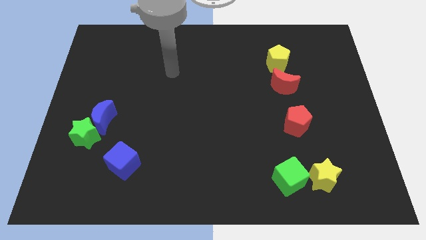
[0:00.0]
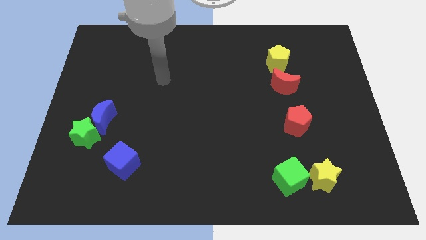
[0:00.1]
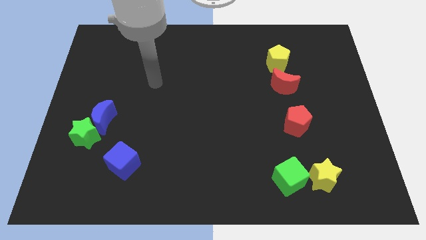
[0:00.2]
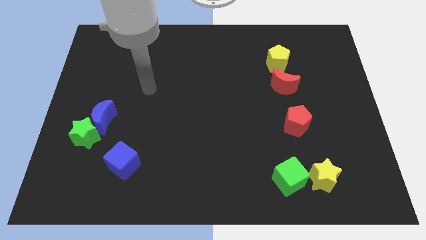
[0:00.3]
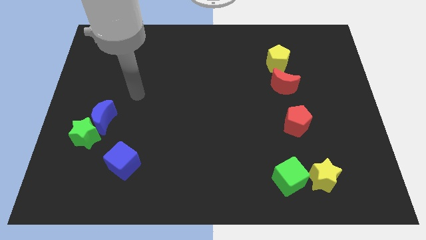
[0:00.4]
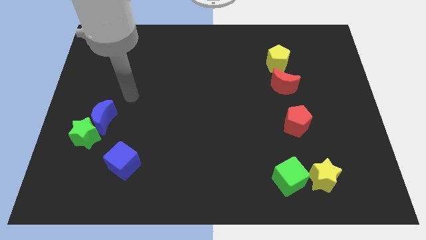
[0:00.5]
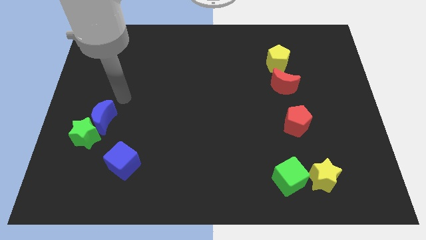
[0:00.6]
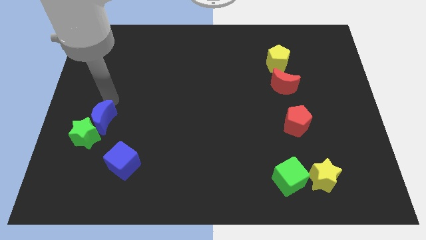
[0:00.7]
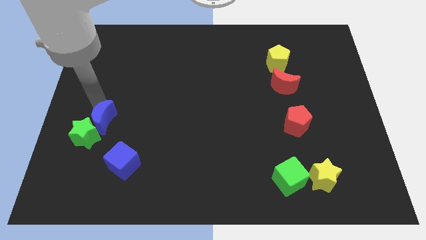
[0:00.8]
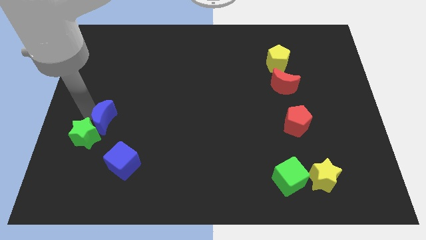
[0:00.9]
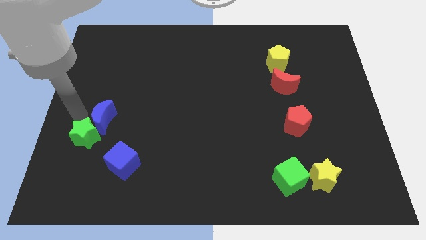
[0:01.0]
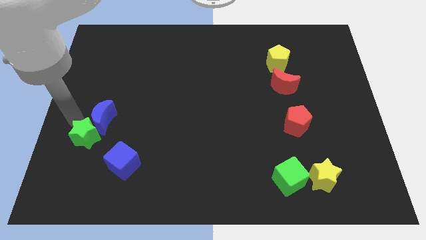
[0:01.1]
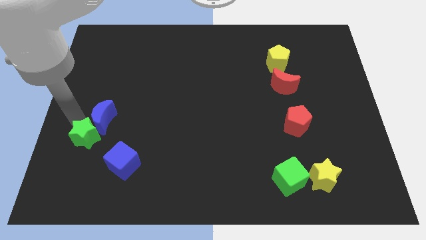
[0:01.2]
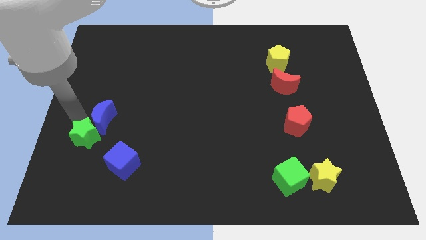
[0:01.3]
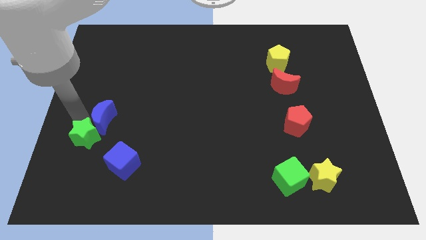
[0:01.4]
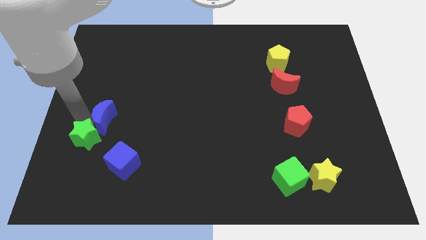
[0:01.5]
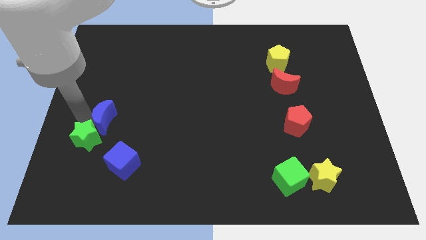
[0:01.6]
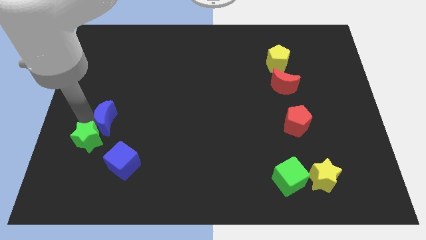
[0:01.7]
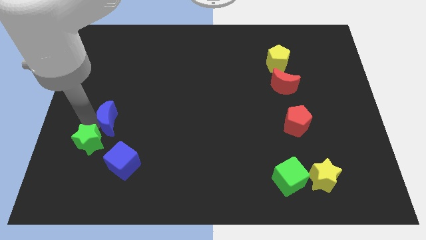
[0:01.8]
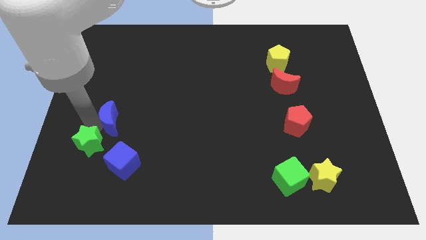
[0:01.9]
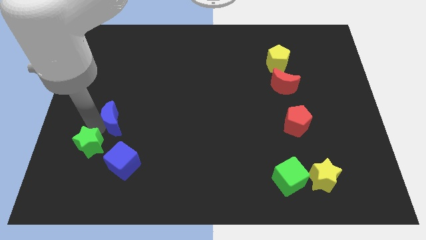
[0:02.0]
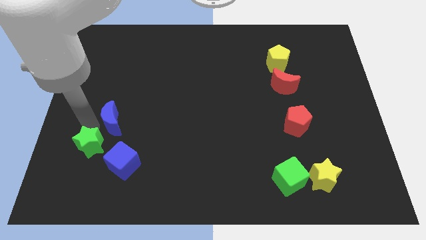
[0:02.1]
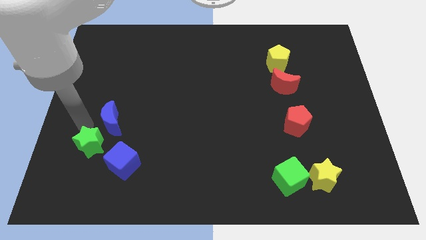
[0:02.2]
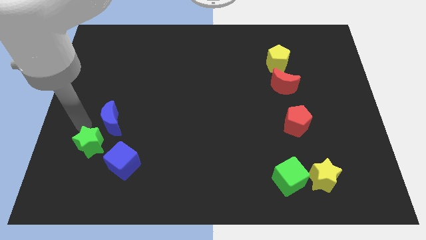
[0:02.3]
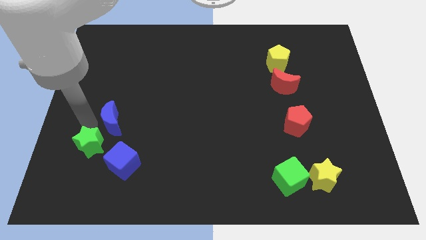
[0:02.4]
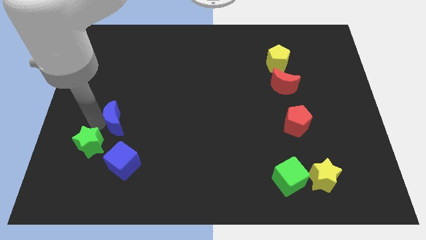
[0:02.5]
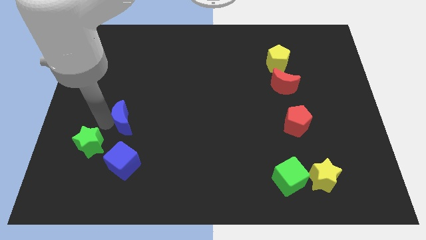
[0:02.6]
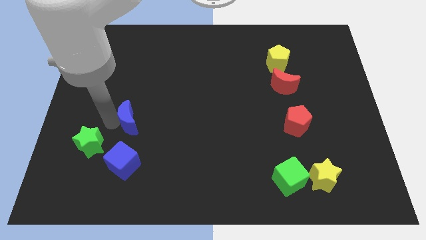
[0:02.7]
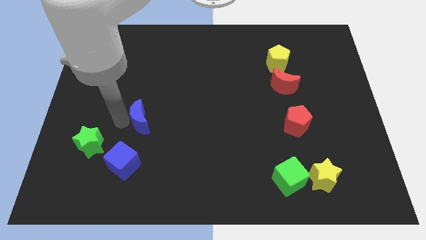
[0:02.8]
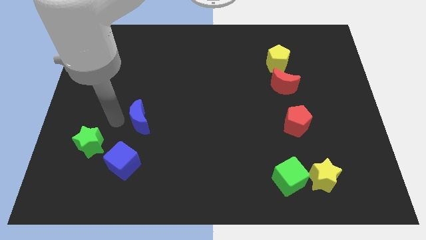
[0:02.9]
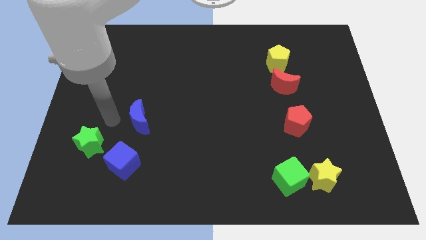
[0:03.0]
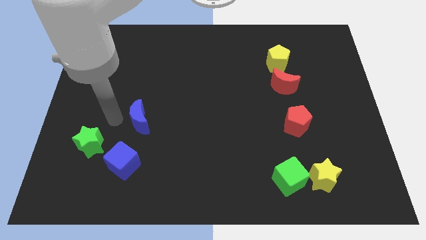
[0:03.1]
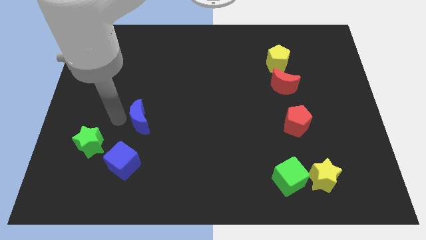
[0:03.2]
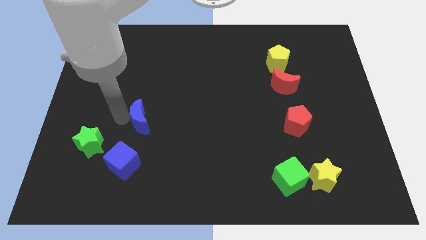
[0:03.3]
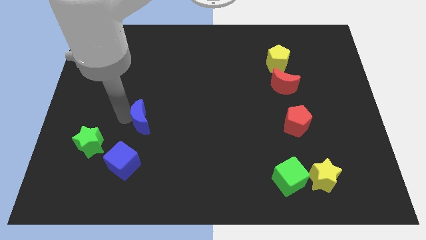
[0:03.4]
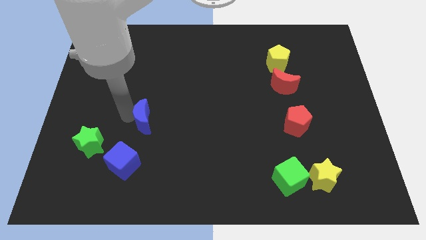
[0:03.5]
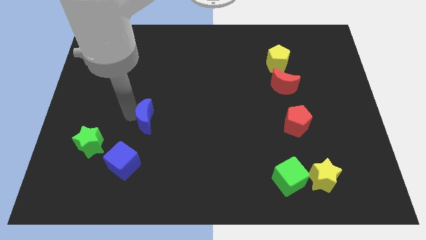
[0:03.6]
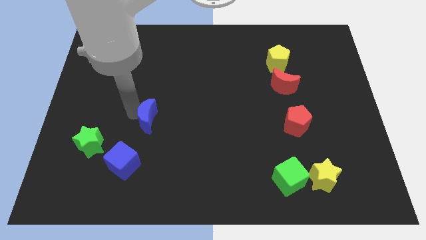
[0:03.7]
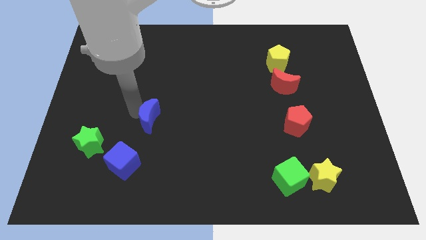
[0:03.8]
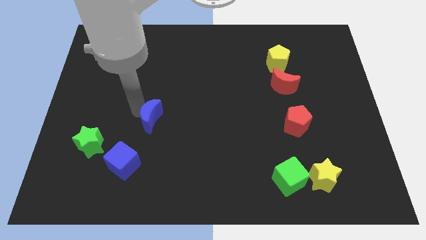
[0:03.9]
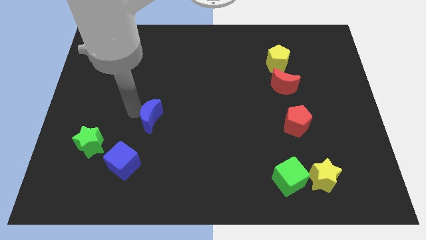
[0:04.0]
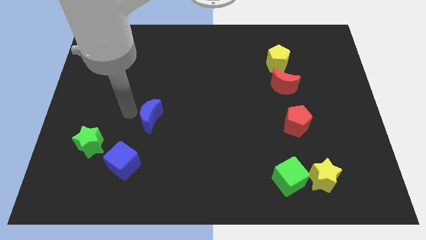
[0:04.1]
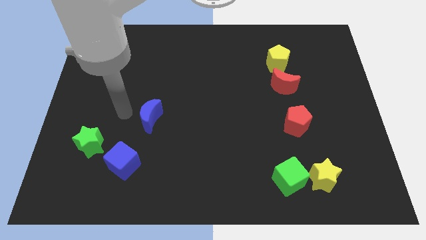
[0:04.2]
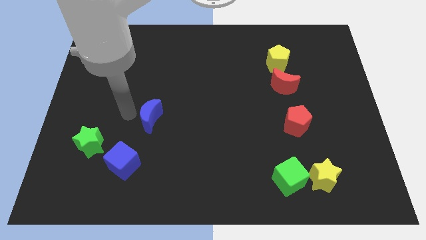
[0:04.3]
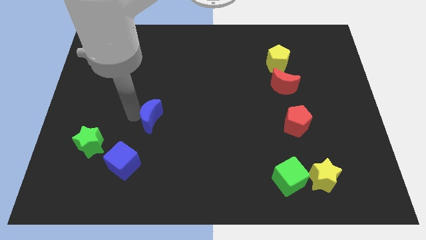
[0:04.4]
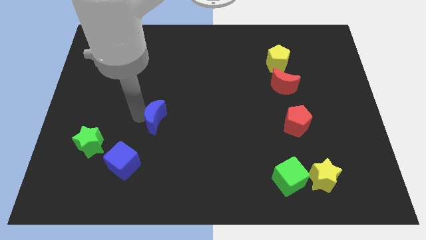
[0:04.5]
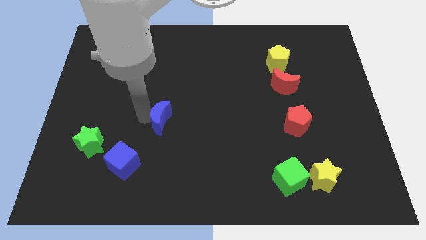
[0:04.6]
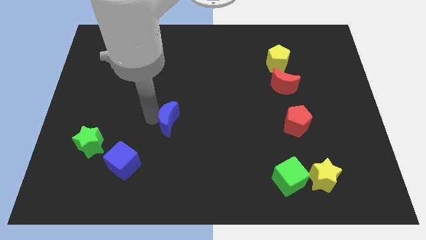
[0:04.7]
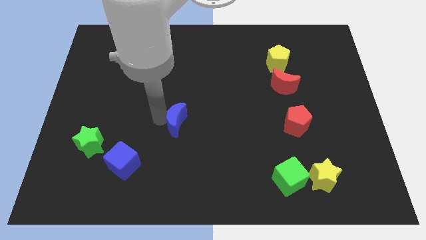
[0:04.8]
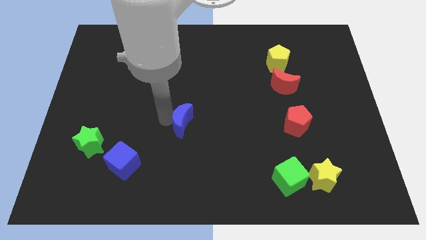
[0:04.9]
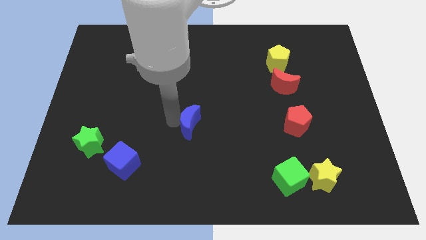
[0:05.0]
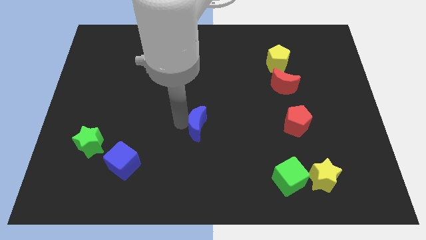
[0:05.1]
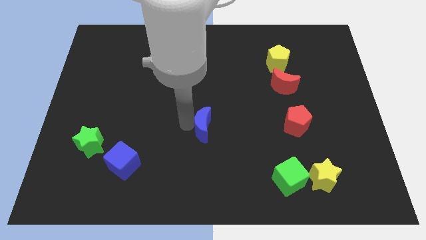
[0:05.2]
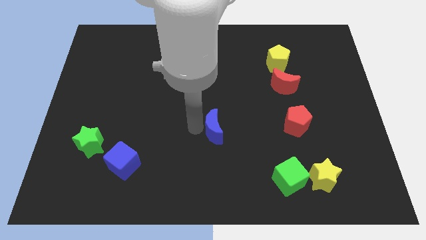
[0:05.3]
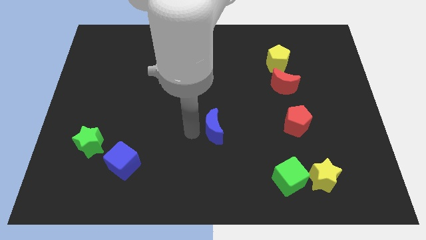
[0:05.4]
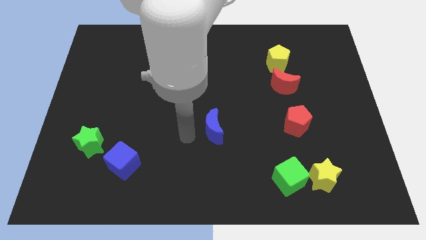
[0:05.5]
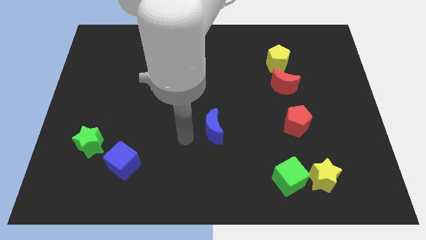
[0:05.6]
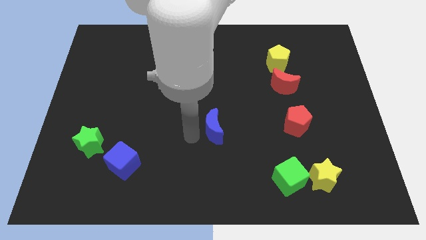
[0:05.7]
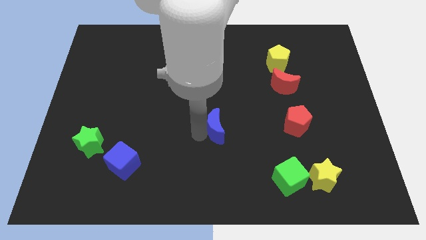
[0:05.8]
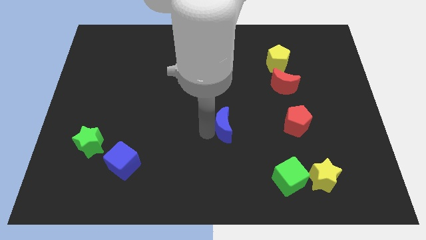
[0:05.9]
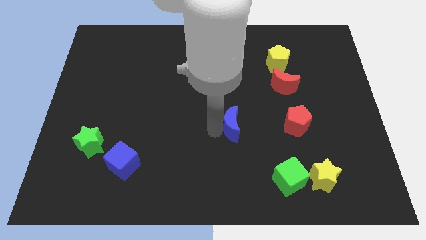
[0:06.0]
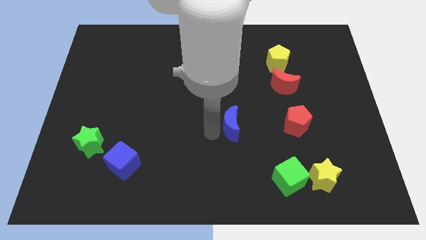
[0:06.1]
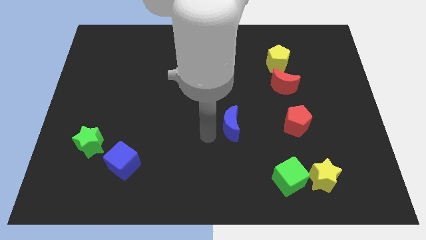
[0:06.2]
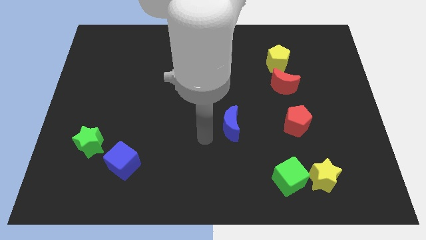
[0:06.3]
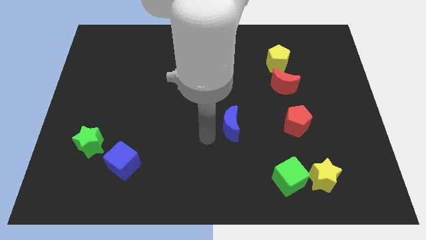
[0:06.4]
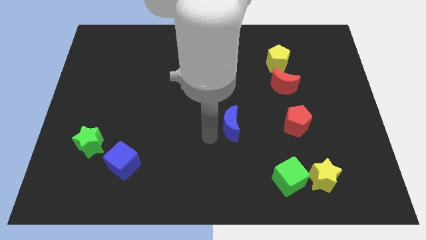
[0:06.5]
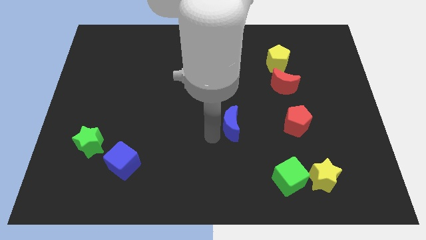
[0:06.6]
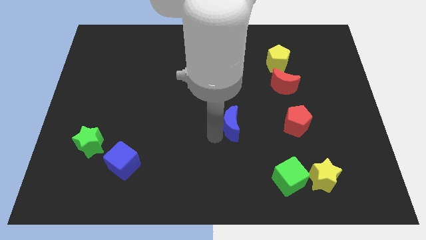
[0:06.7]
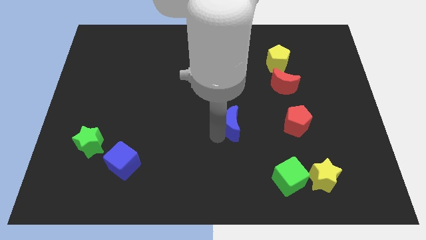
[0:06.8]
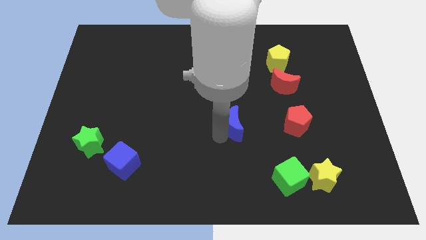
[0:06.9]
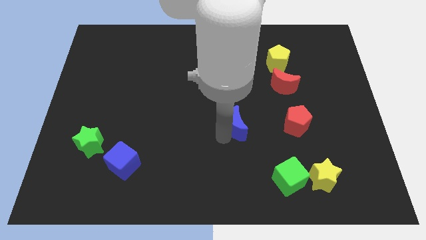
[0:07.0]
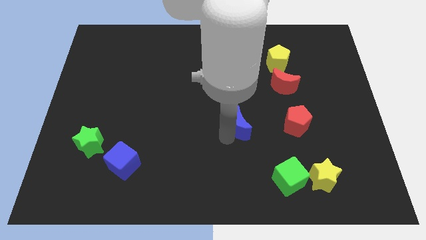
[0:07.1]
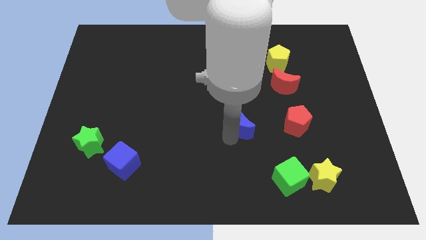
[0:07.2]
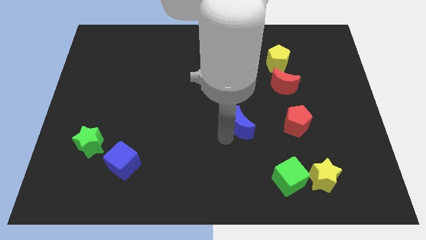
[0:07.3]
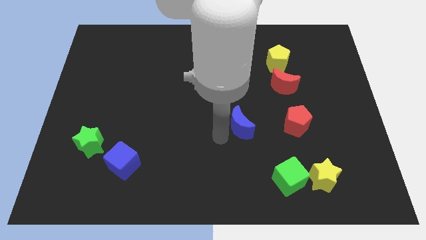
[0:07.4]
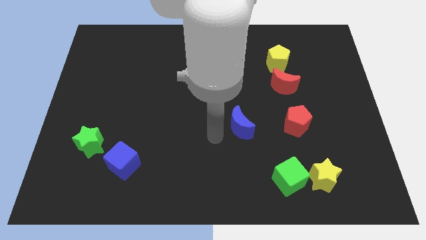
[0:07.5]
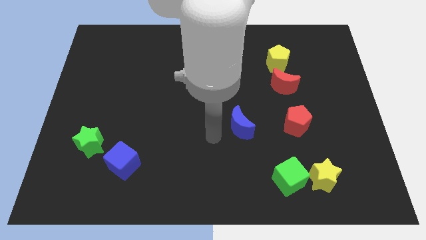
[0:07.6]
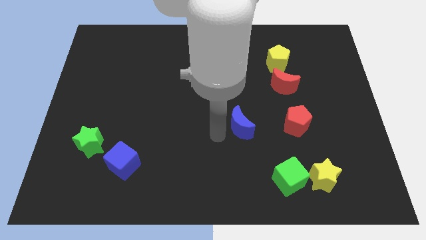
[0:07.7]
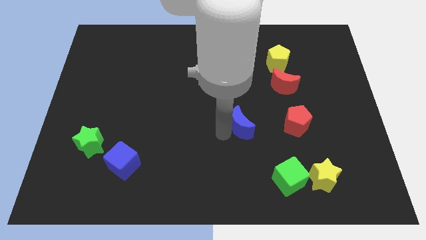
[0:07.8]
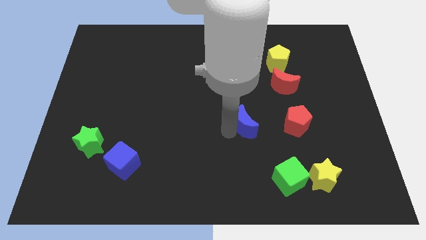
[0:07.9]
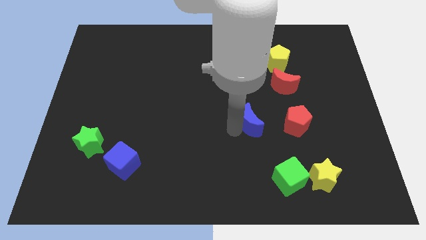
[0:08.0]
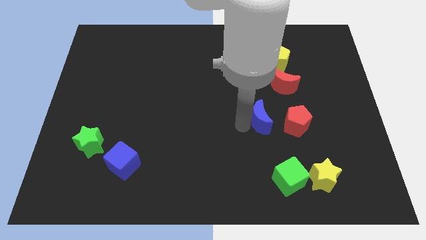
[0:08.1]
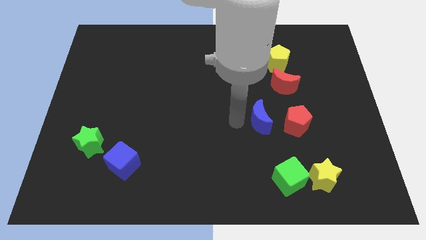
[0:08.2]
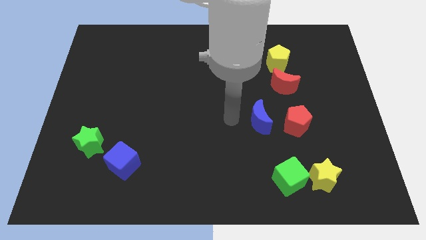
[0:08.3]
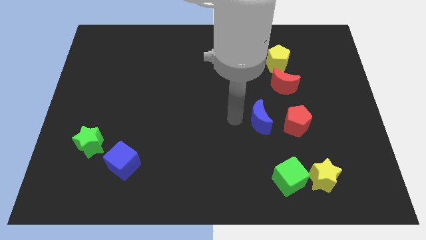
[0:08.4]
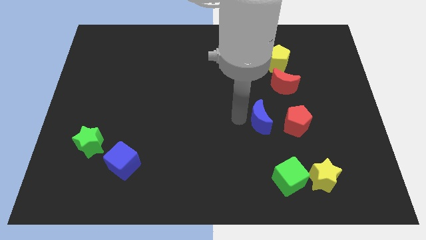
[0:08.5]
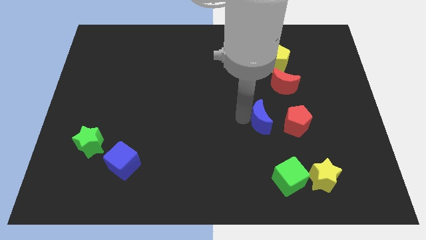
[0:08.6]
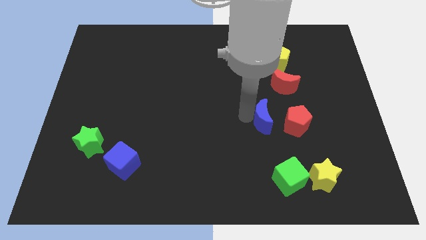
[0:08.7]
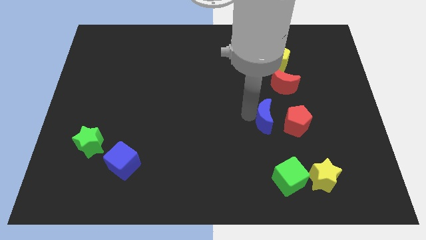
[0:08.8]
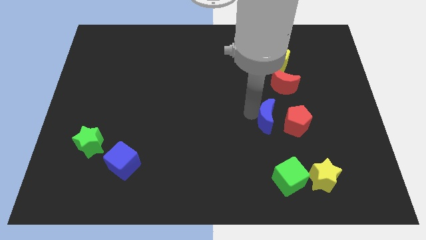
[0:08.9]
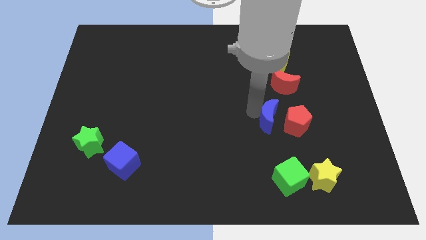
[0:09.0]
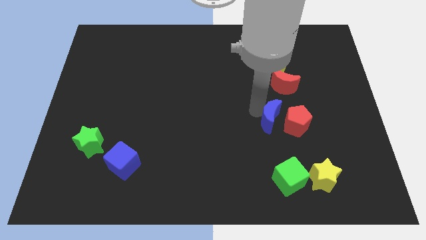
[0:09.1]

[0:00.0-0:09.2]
put the blue moon next to the red pentagon
